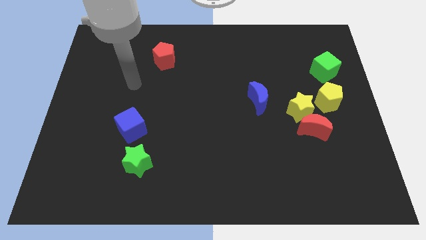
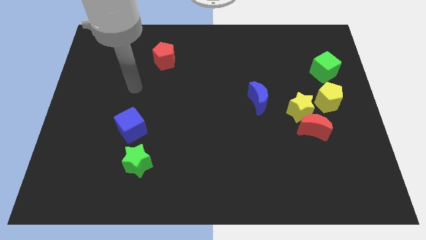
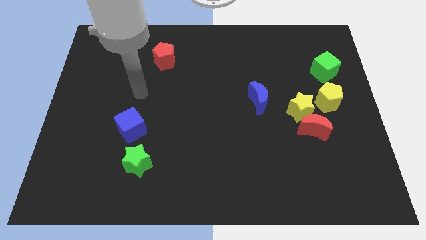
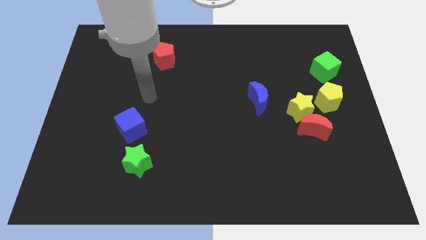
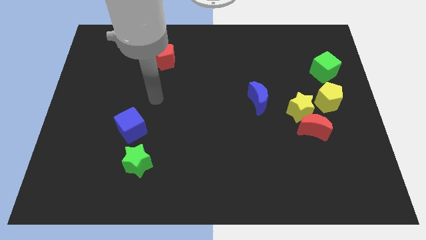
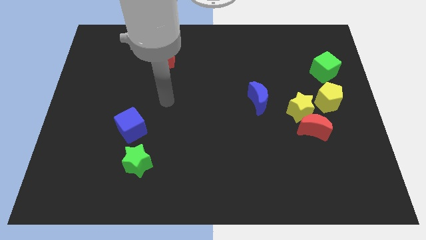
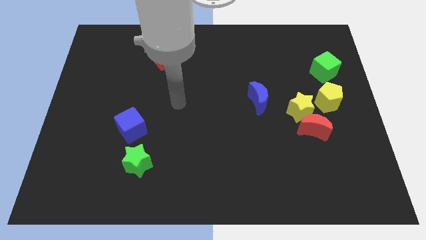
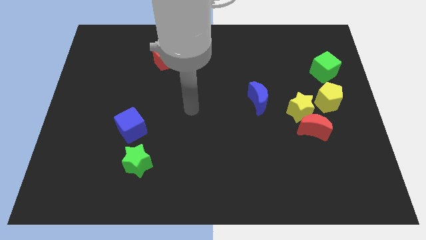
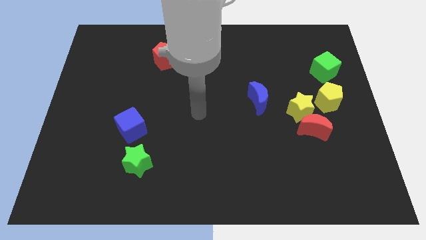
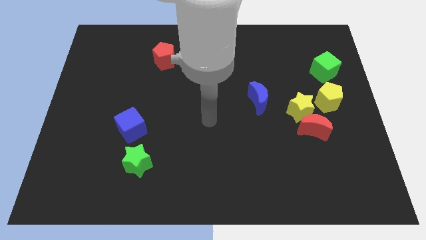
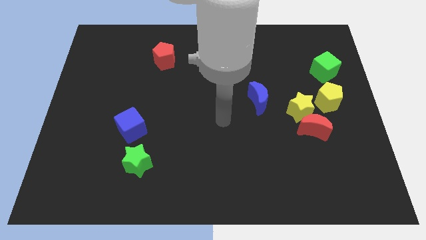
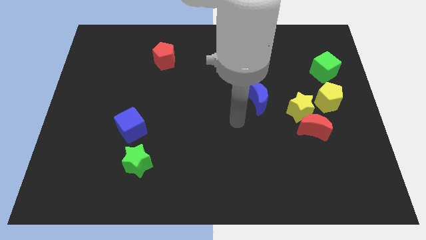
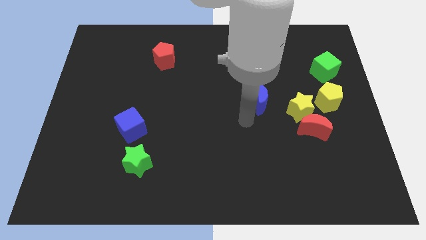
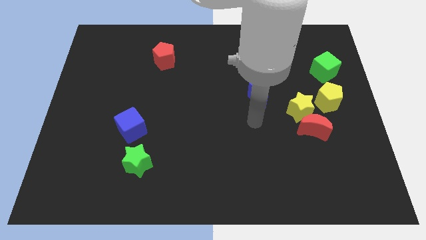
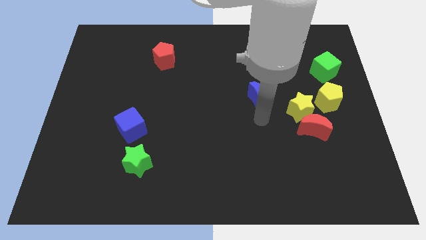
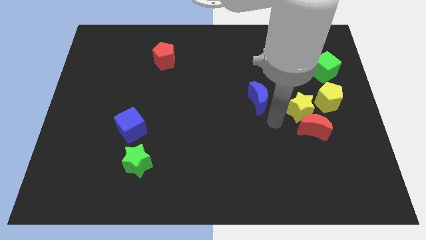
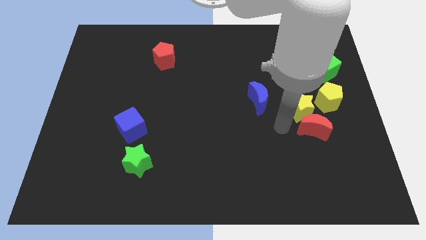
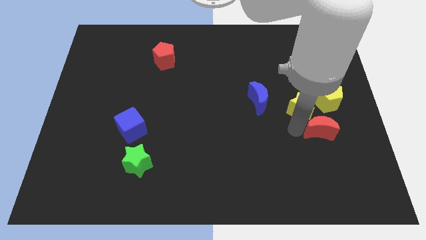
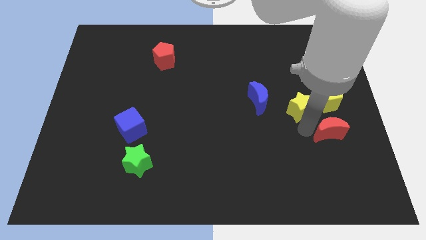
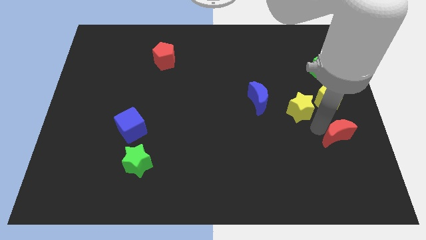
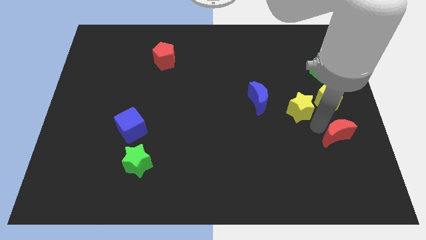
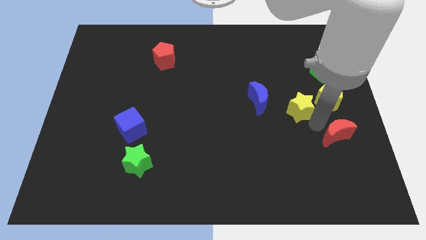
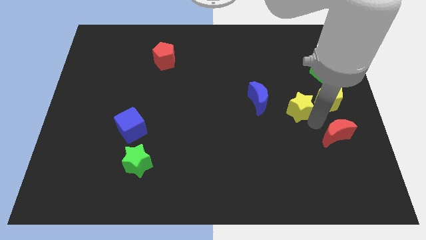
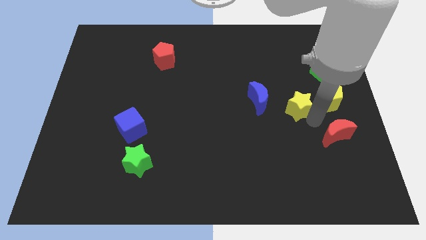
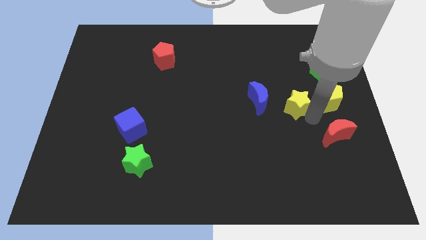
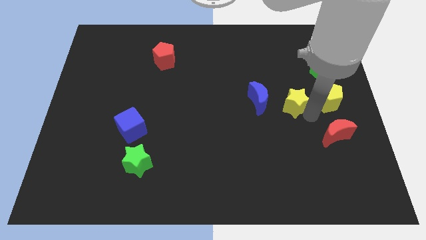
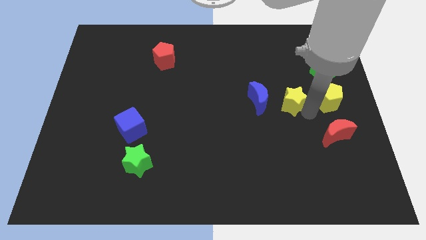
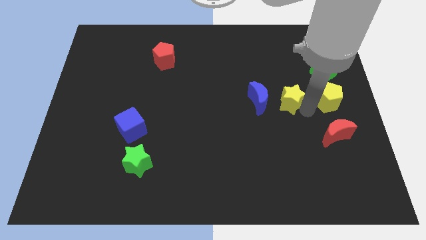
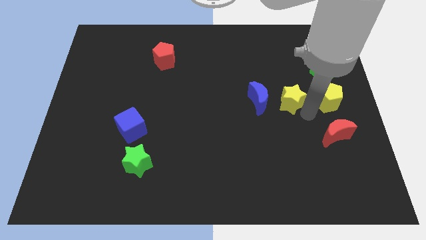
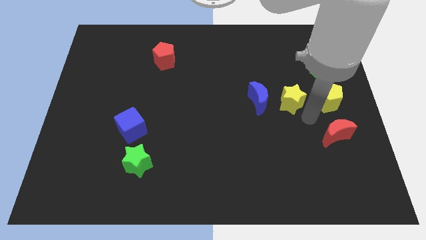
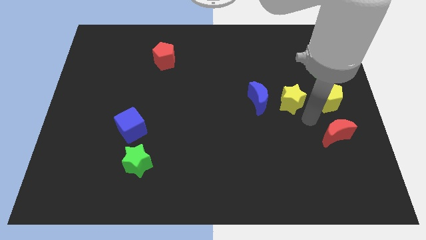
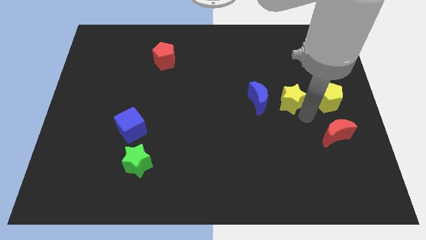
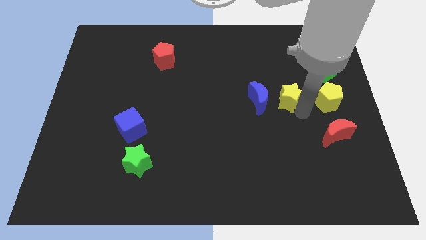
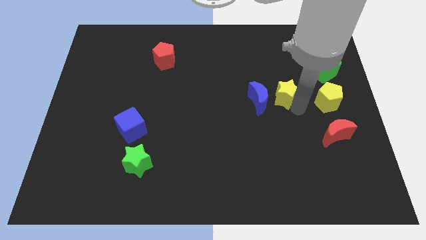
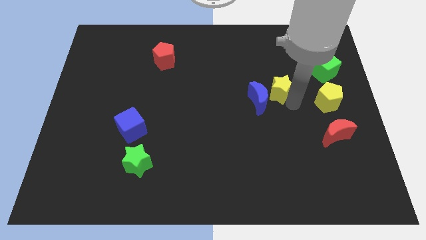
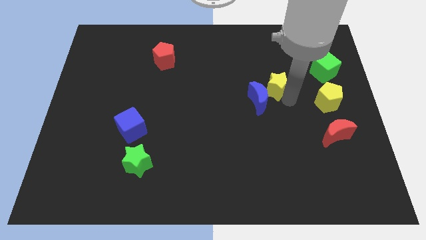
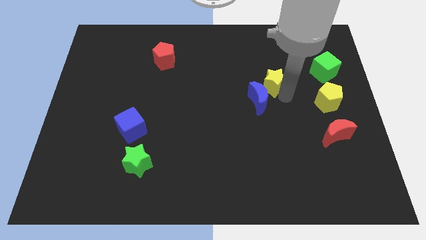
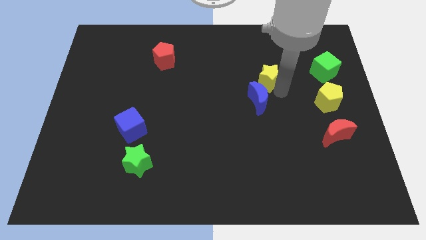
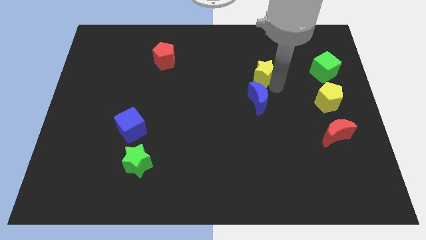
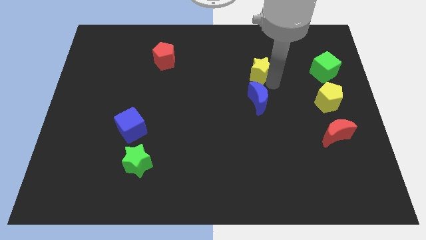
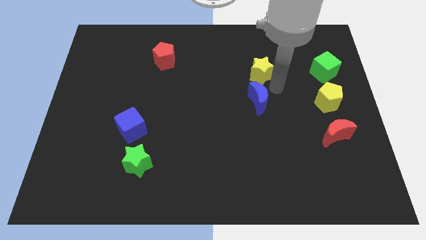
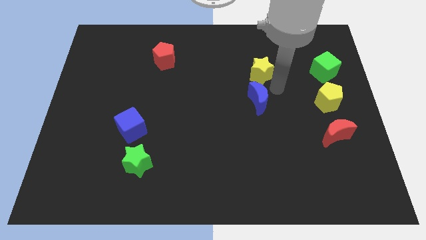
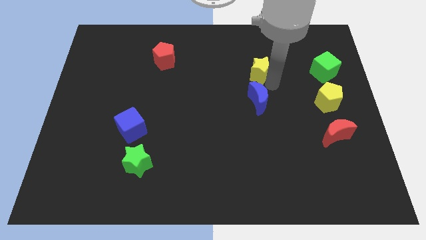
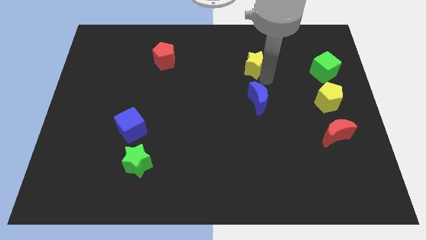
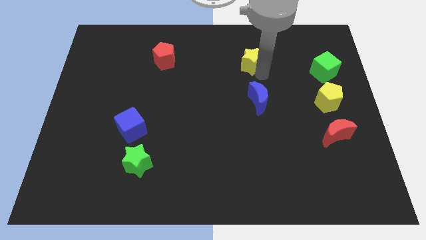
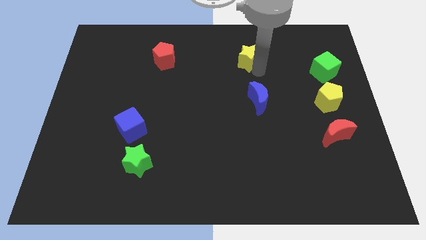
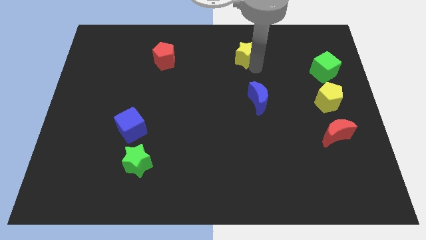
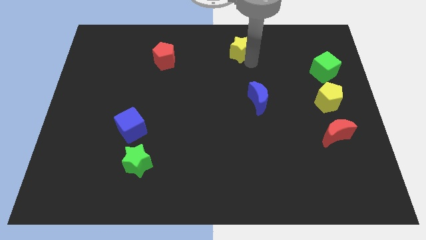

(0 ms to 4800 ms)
slide the yellow star to the top side

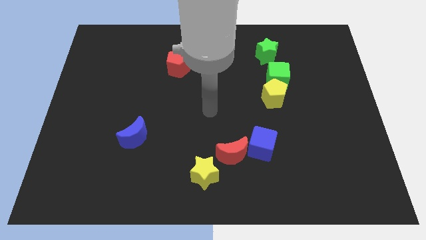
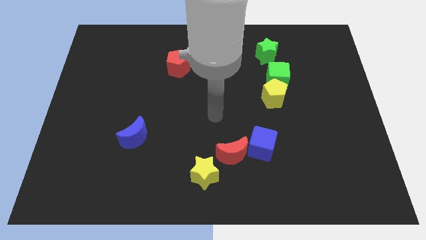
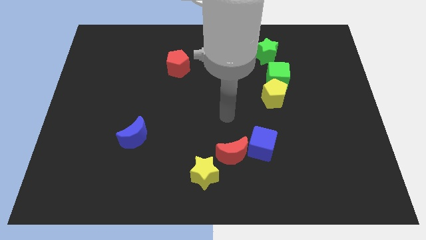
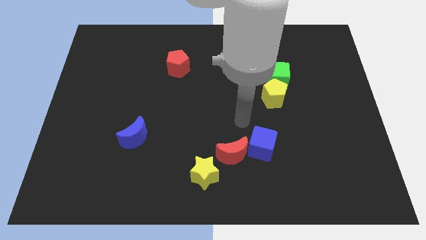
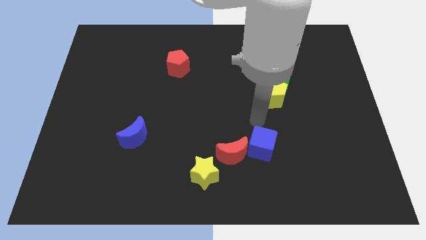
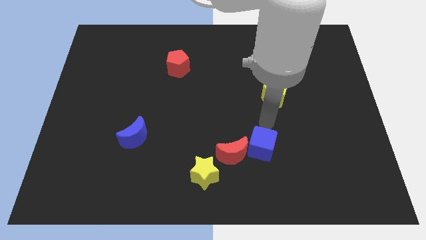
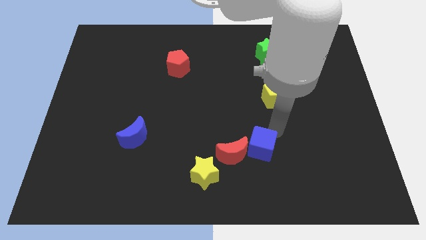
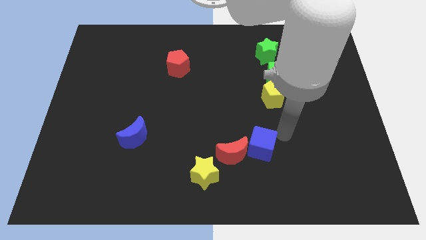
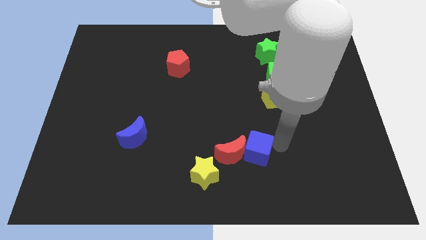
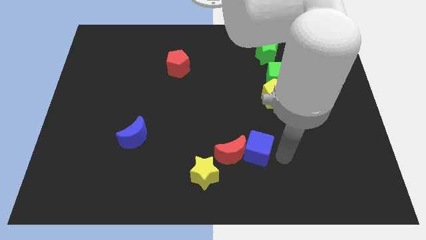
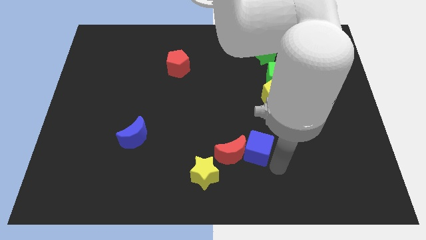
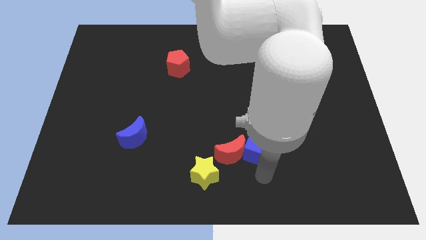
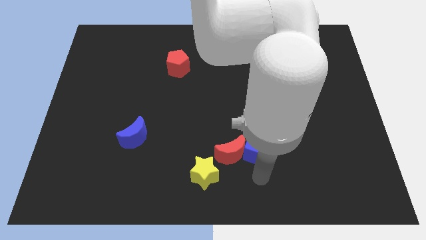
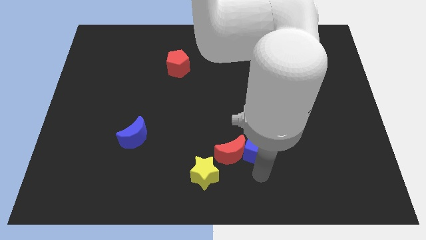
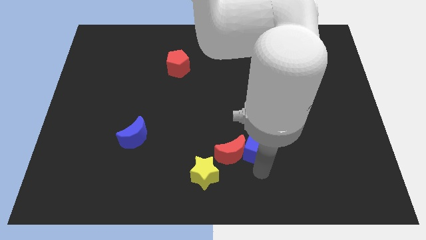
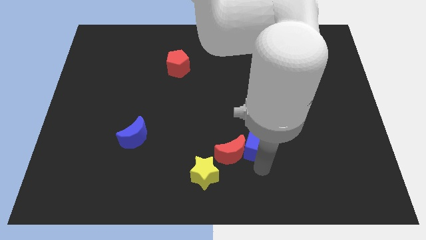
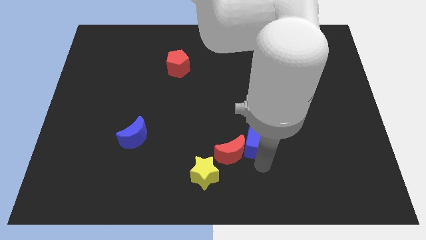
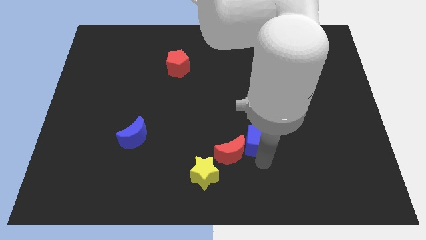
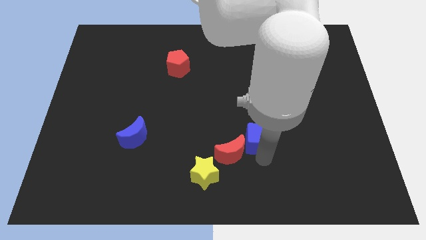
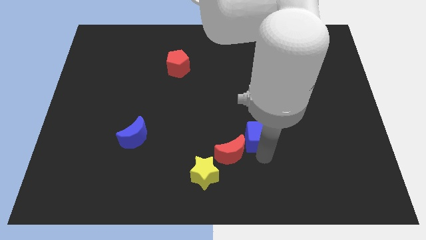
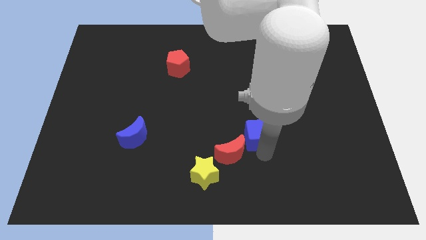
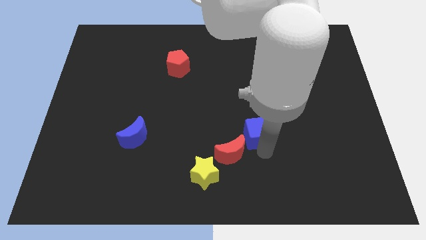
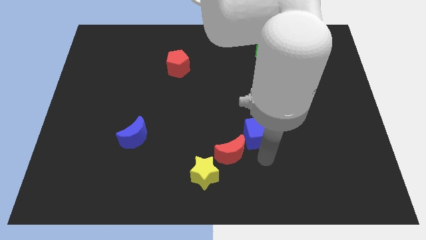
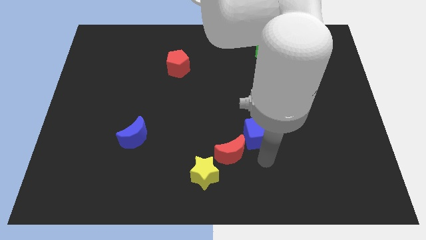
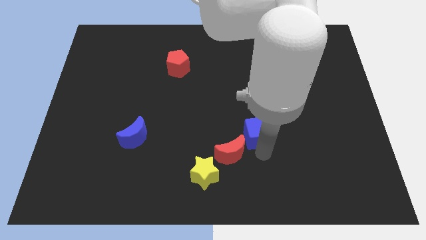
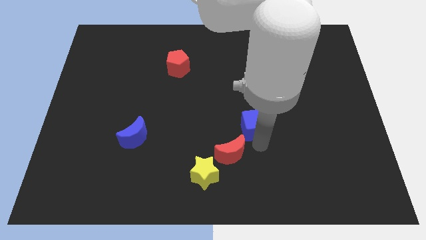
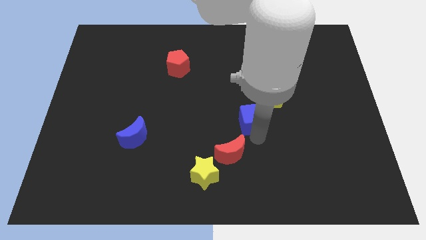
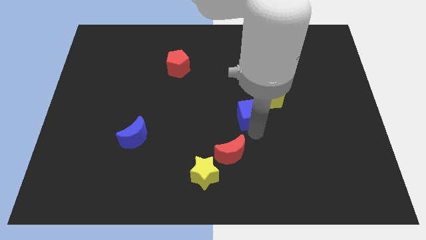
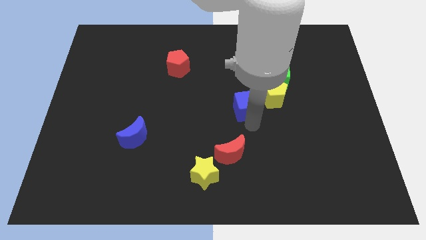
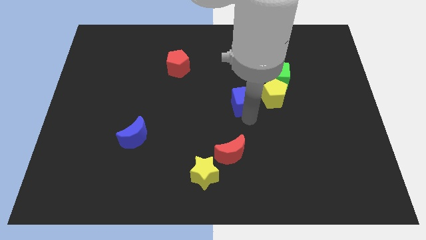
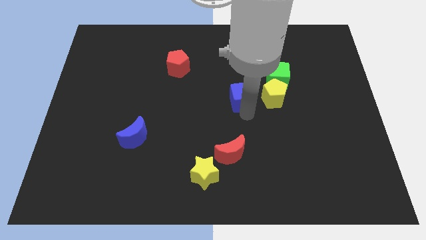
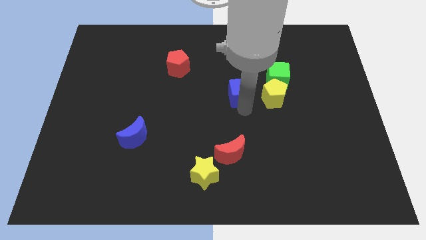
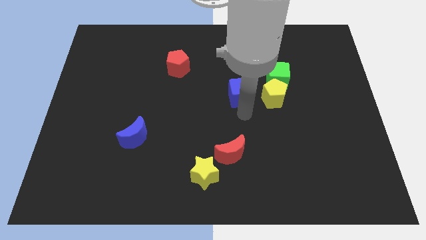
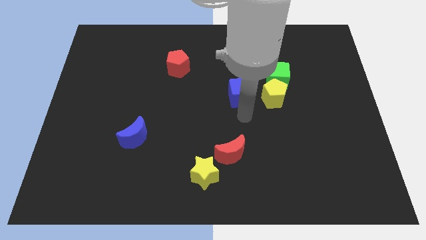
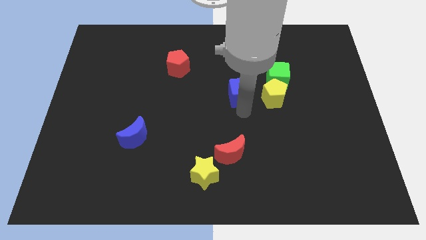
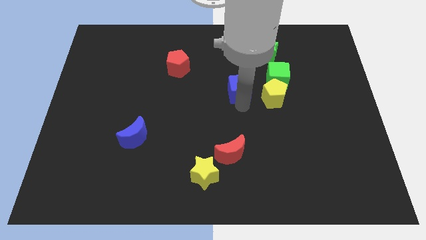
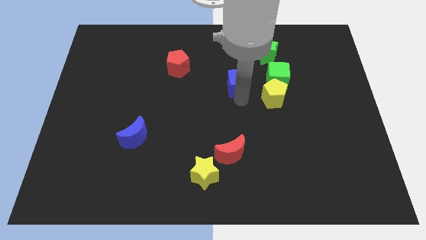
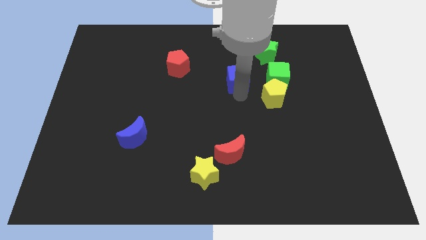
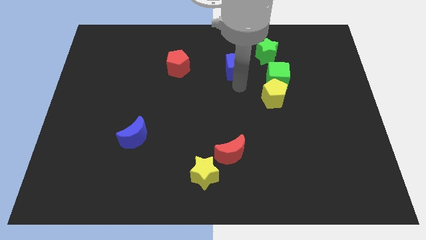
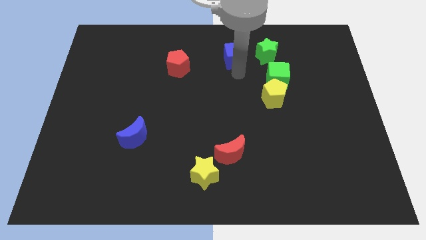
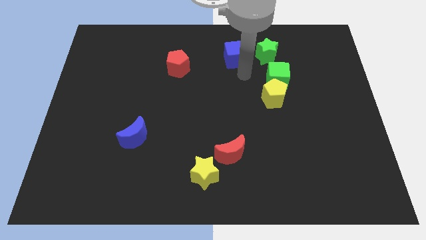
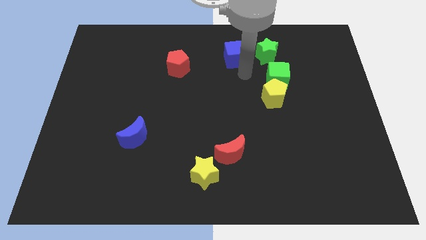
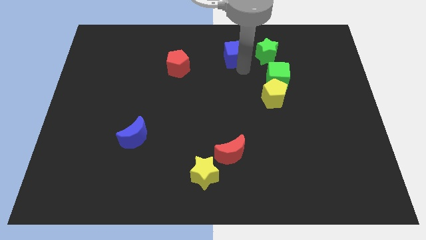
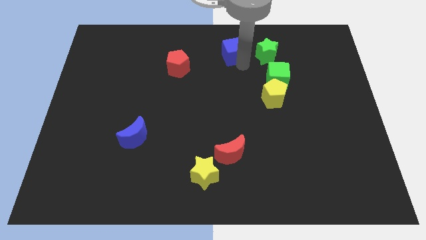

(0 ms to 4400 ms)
put the blue cube to the towards your base
